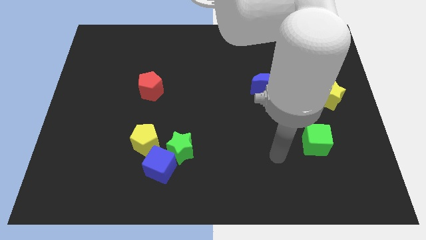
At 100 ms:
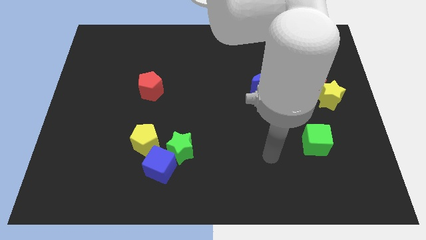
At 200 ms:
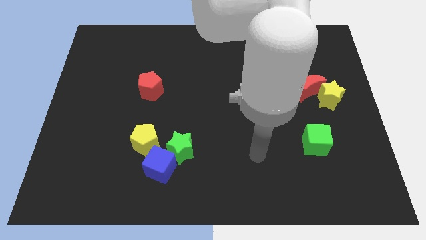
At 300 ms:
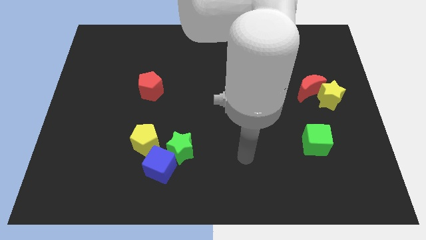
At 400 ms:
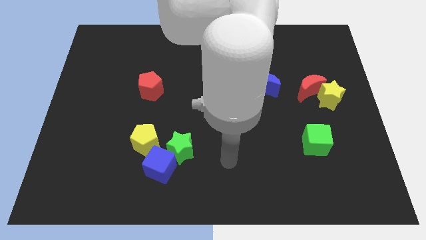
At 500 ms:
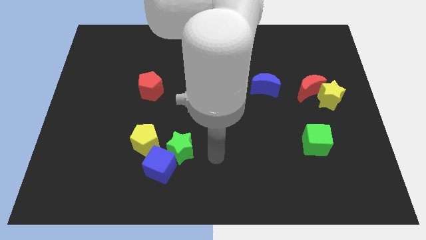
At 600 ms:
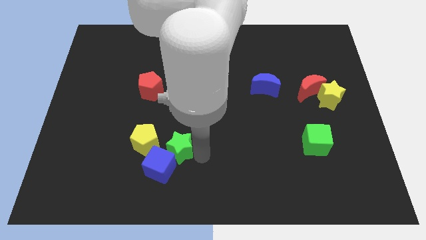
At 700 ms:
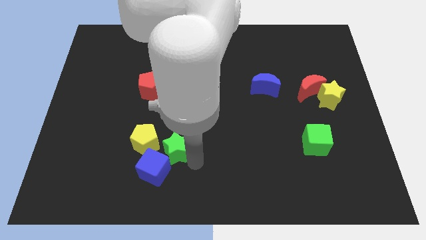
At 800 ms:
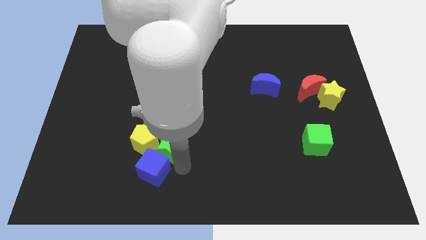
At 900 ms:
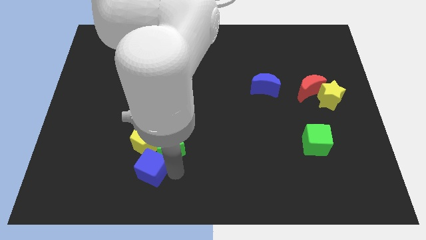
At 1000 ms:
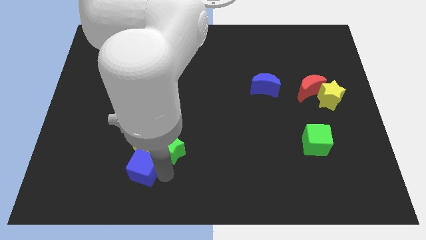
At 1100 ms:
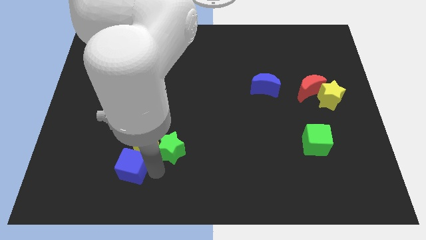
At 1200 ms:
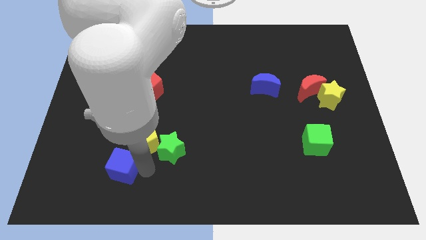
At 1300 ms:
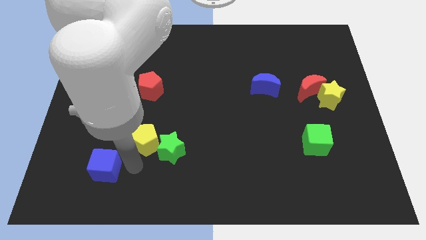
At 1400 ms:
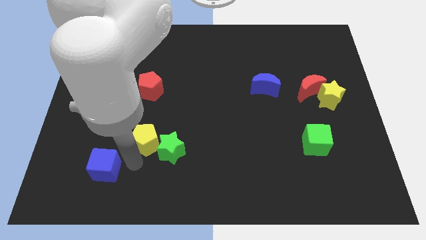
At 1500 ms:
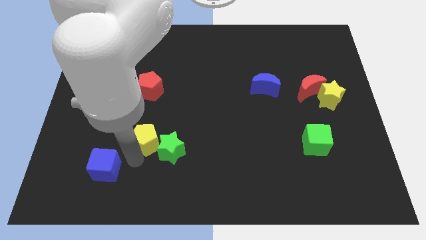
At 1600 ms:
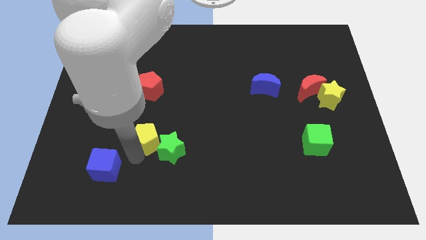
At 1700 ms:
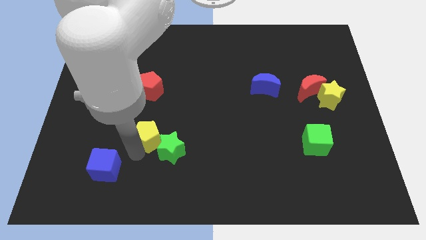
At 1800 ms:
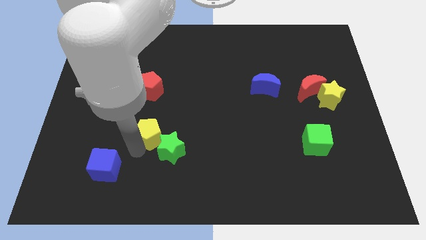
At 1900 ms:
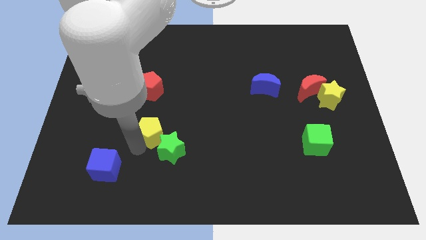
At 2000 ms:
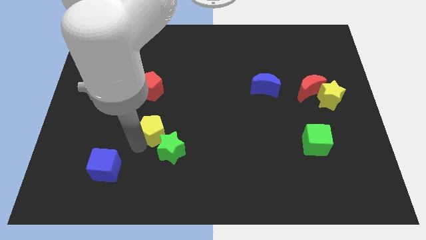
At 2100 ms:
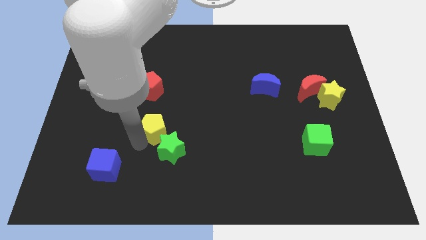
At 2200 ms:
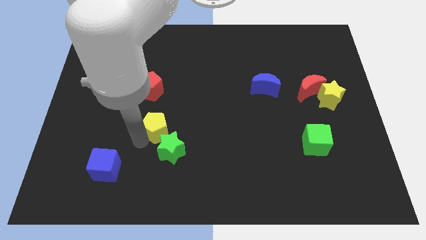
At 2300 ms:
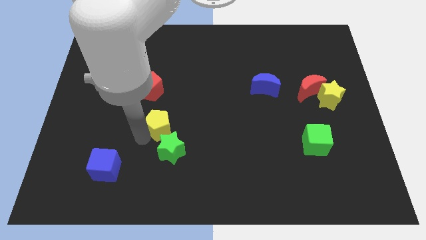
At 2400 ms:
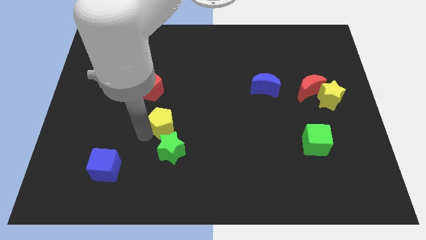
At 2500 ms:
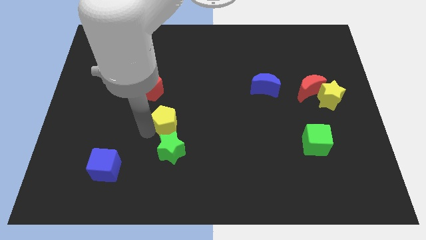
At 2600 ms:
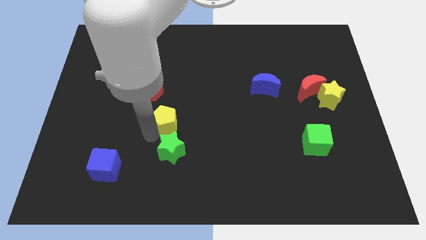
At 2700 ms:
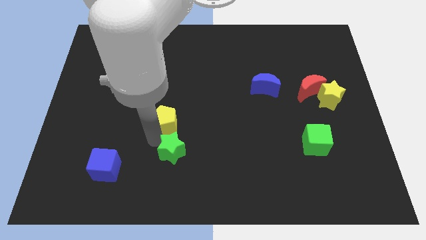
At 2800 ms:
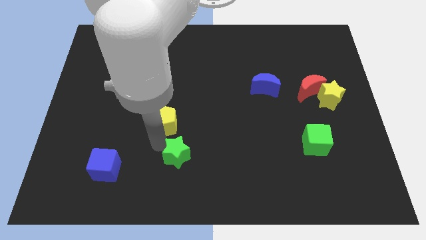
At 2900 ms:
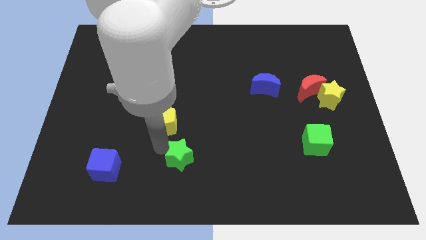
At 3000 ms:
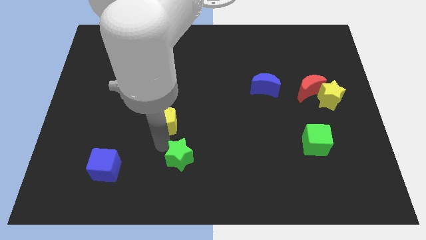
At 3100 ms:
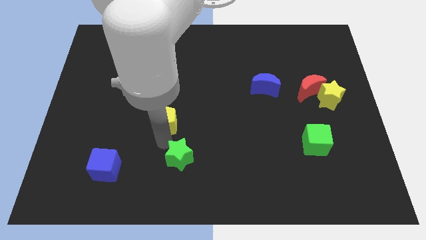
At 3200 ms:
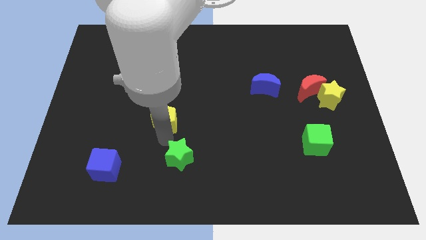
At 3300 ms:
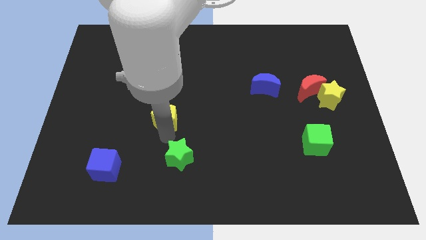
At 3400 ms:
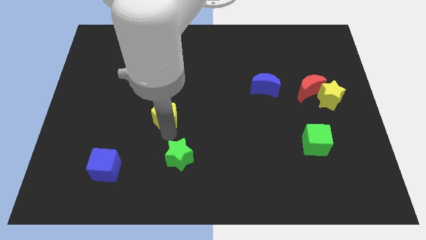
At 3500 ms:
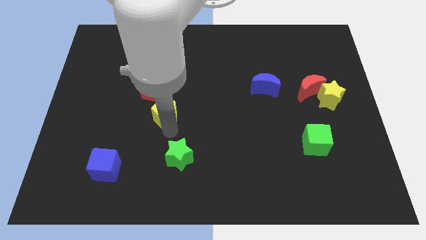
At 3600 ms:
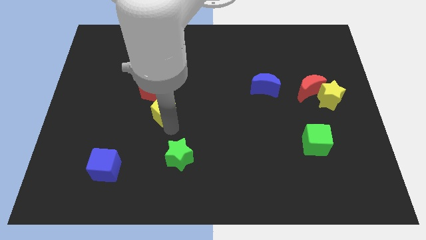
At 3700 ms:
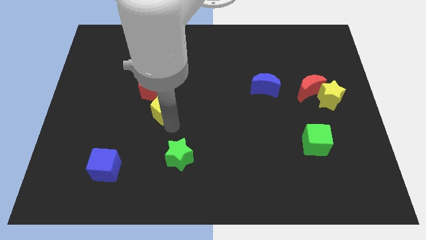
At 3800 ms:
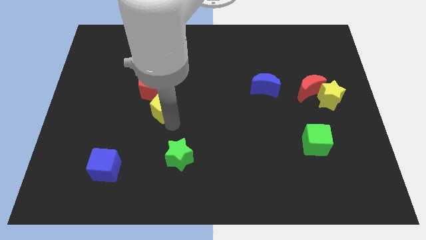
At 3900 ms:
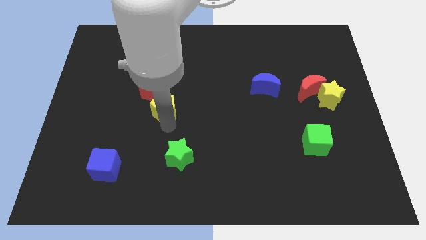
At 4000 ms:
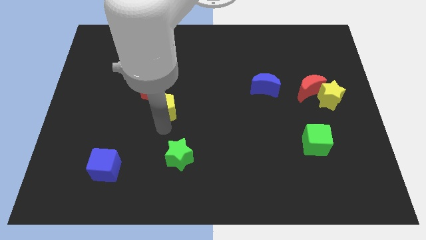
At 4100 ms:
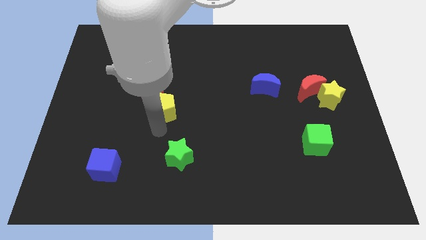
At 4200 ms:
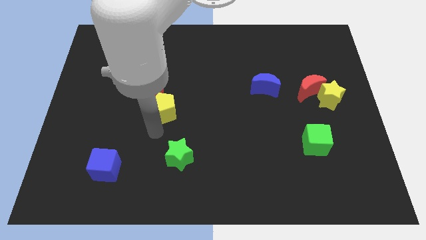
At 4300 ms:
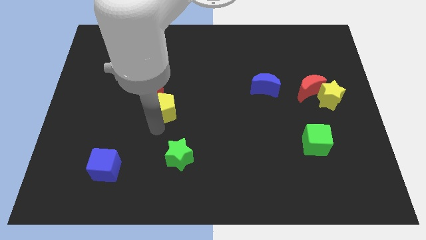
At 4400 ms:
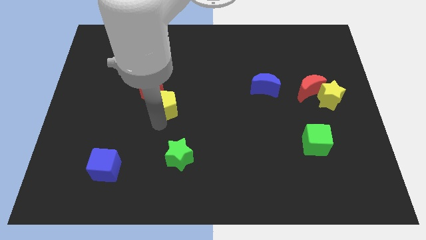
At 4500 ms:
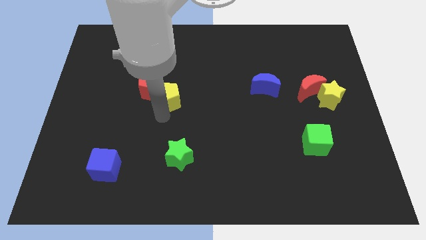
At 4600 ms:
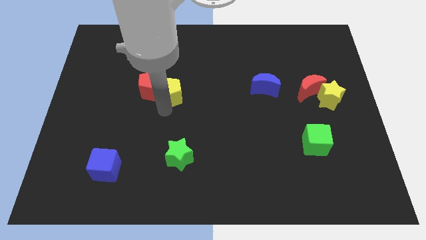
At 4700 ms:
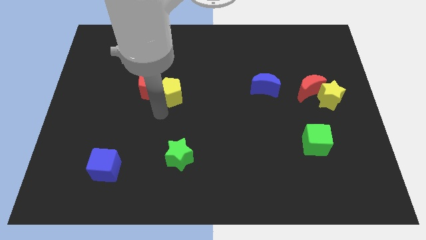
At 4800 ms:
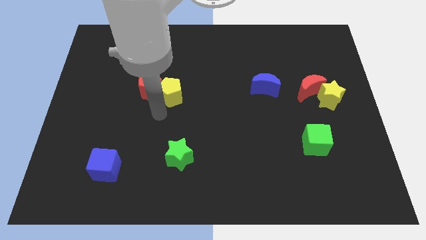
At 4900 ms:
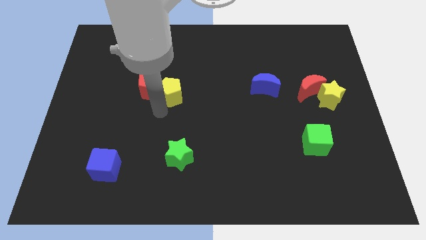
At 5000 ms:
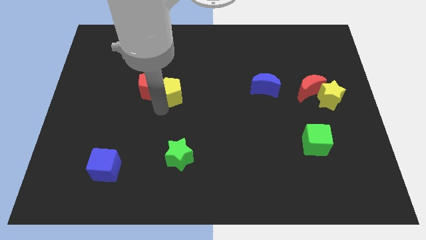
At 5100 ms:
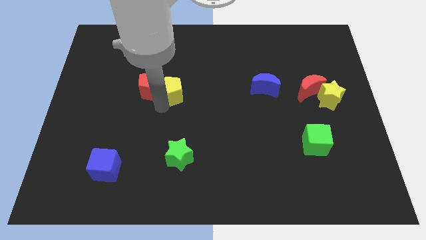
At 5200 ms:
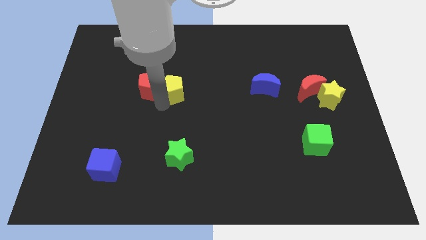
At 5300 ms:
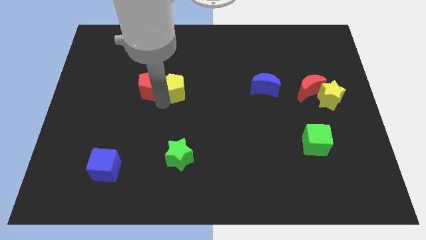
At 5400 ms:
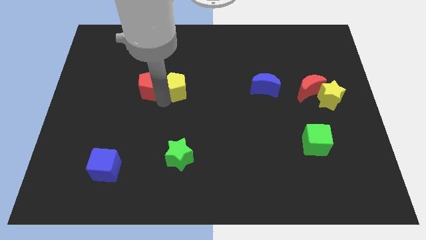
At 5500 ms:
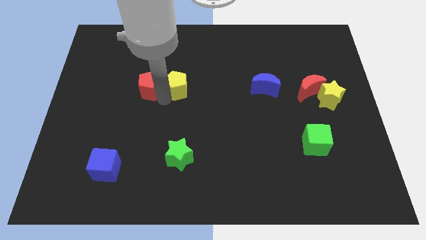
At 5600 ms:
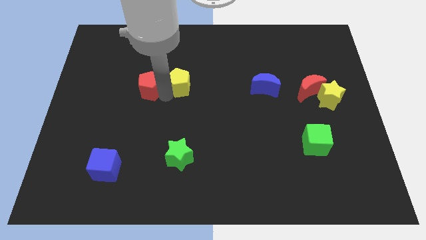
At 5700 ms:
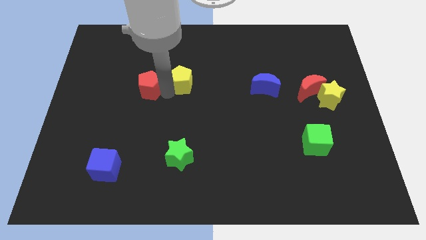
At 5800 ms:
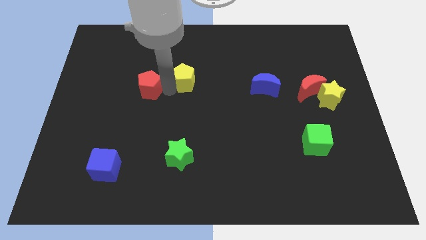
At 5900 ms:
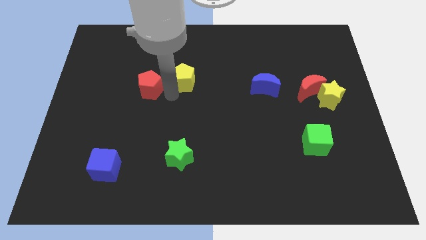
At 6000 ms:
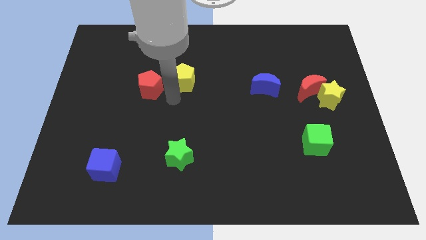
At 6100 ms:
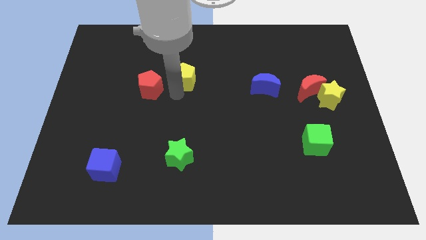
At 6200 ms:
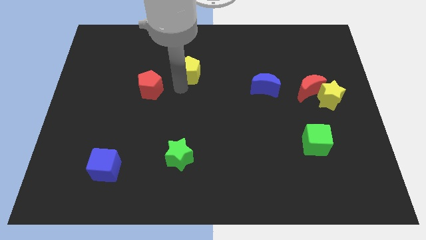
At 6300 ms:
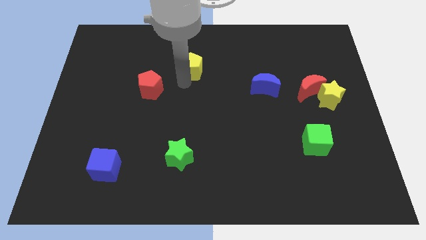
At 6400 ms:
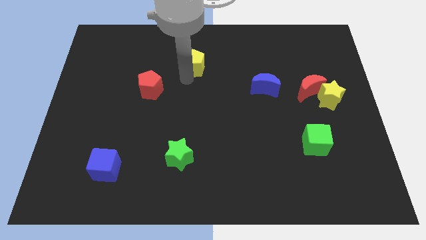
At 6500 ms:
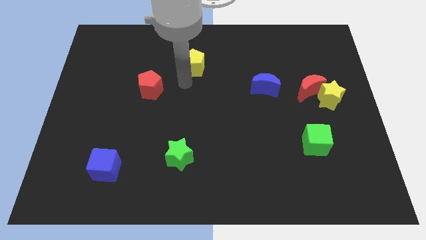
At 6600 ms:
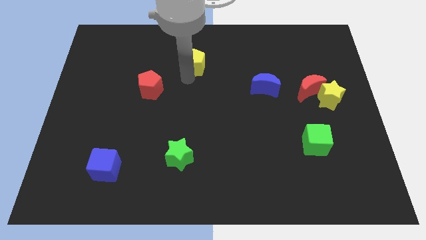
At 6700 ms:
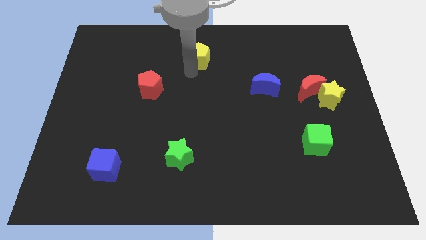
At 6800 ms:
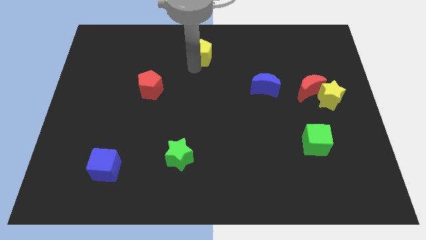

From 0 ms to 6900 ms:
move the yellow pentagon to the towards your base
